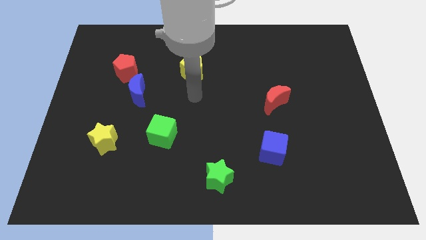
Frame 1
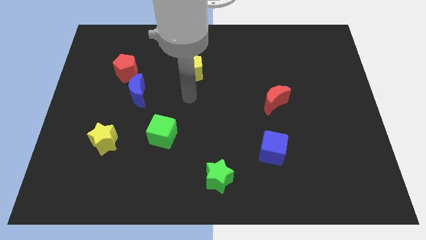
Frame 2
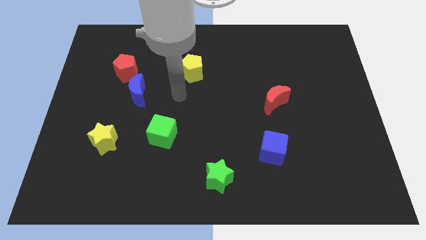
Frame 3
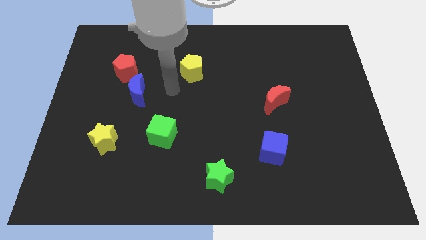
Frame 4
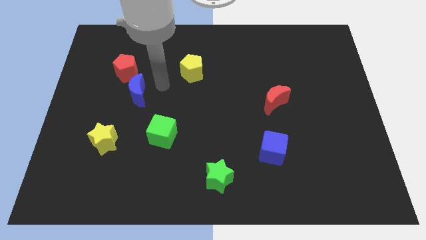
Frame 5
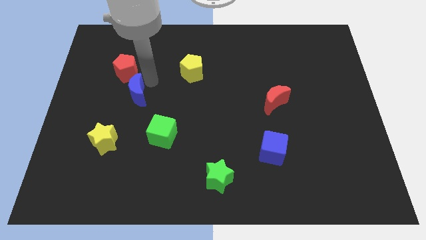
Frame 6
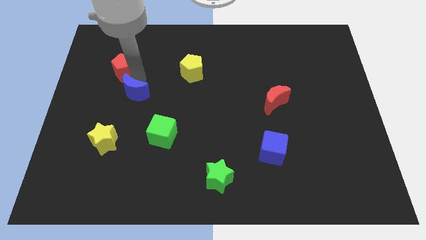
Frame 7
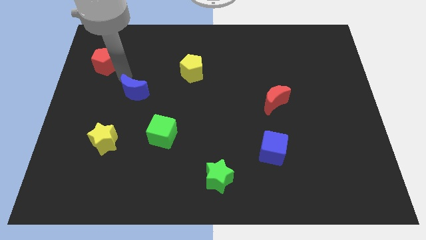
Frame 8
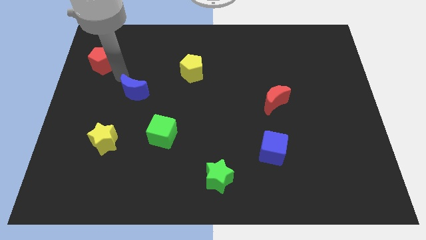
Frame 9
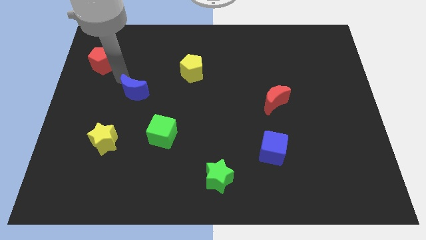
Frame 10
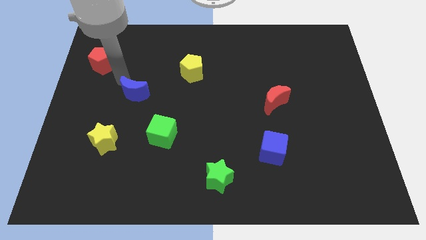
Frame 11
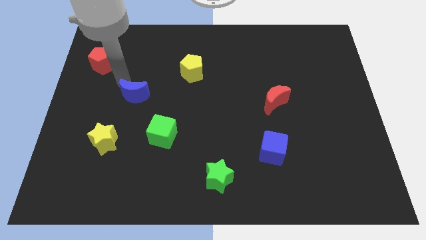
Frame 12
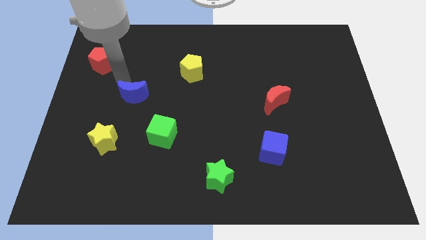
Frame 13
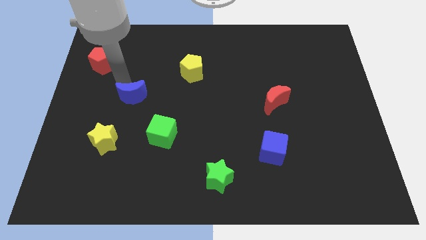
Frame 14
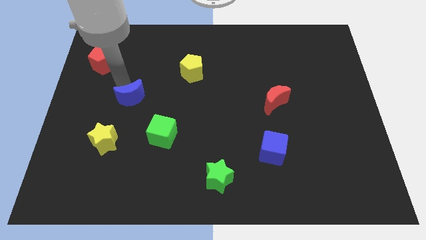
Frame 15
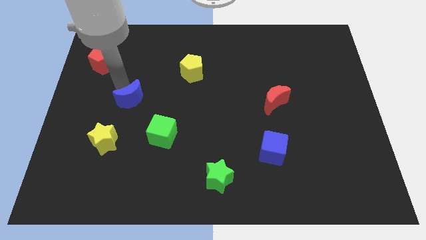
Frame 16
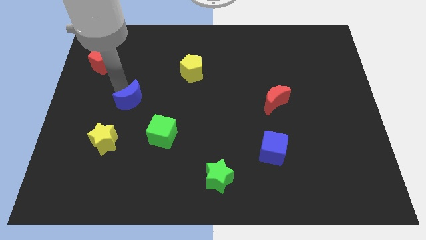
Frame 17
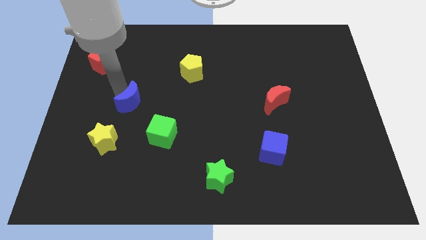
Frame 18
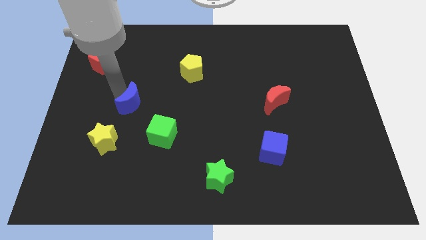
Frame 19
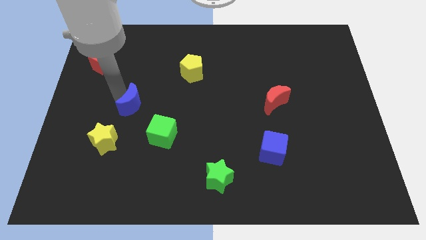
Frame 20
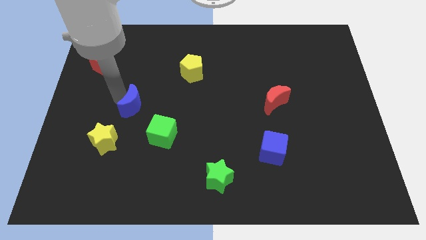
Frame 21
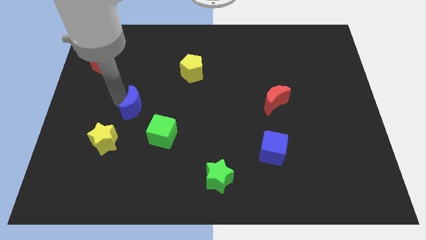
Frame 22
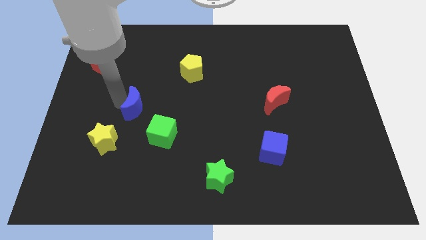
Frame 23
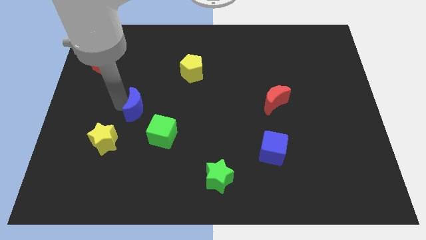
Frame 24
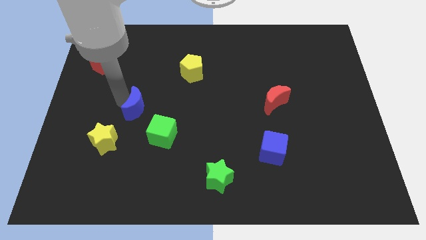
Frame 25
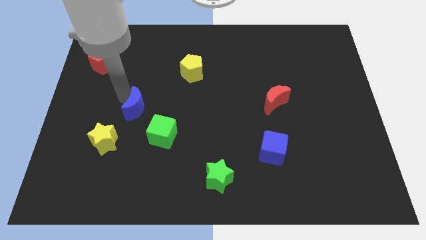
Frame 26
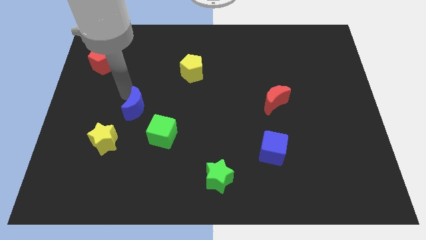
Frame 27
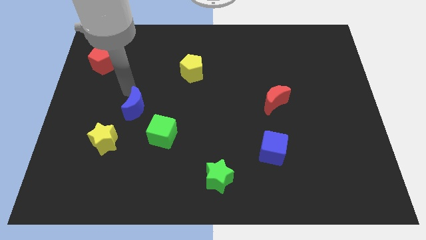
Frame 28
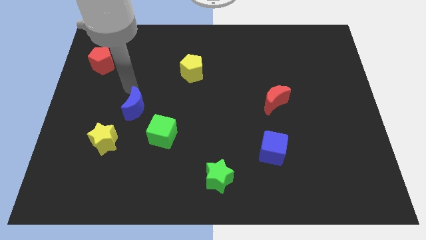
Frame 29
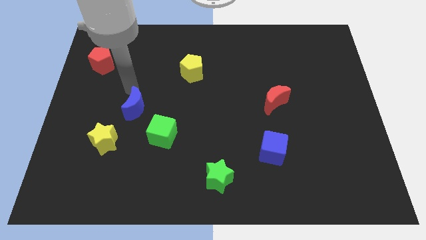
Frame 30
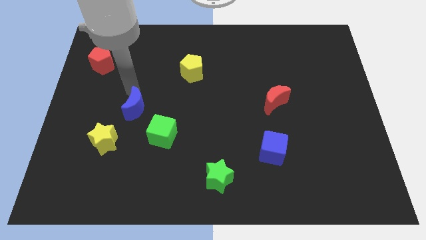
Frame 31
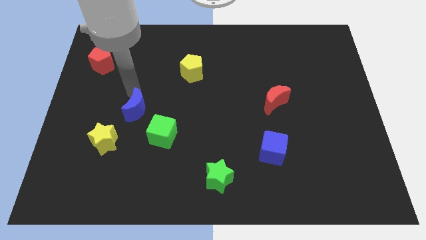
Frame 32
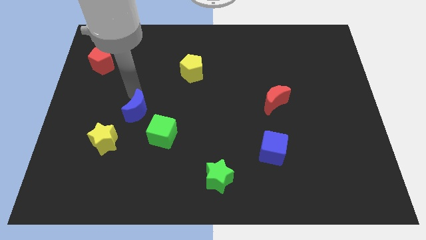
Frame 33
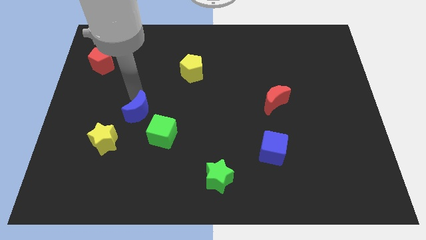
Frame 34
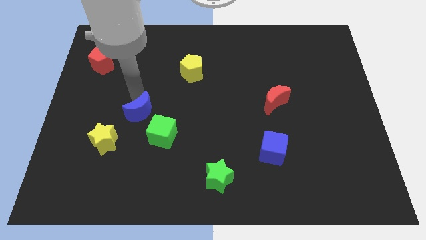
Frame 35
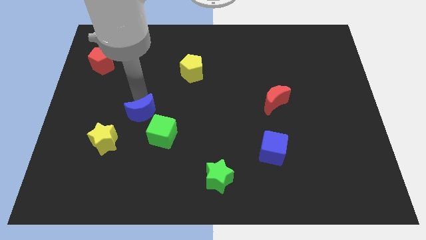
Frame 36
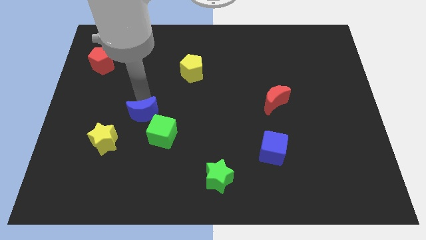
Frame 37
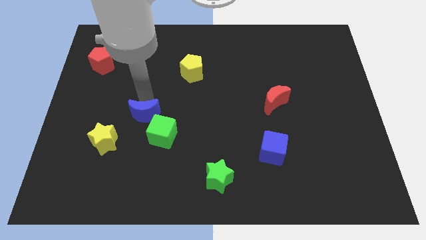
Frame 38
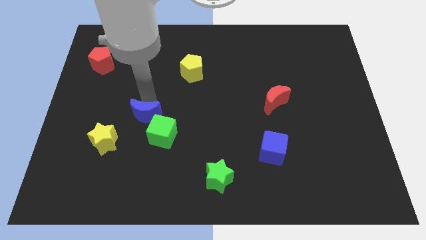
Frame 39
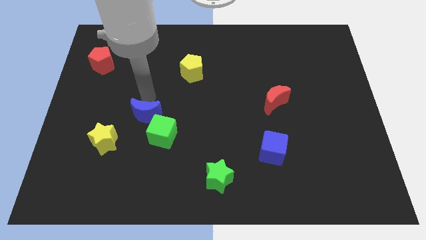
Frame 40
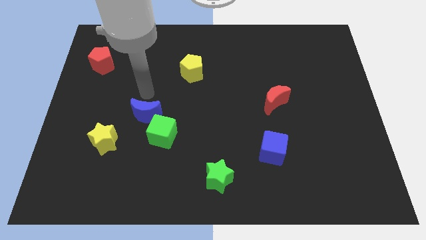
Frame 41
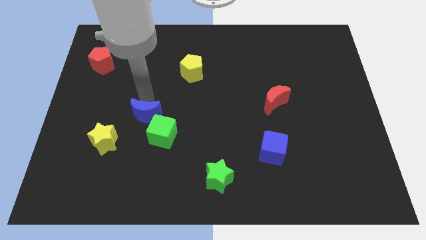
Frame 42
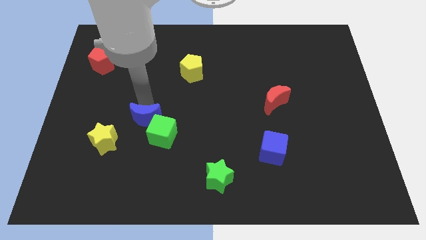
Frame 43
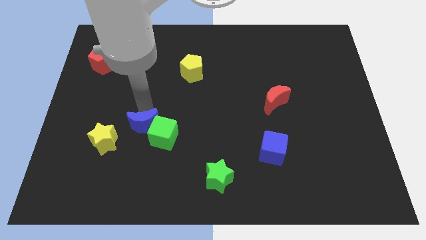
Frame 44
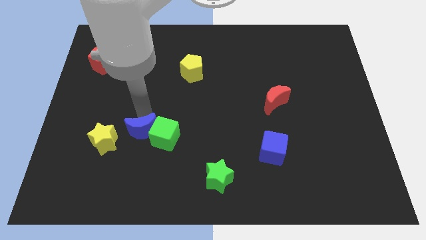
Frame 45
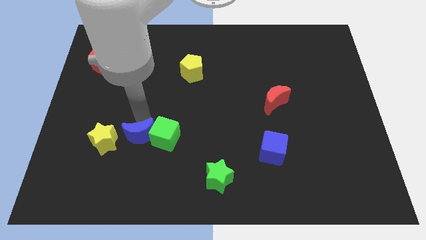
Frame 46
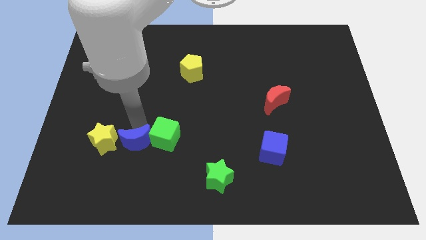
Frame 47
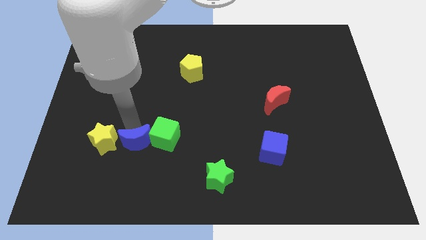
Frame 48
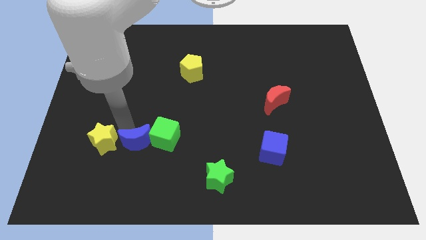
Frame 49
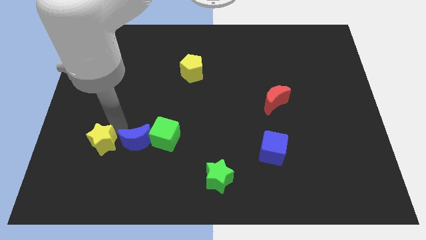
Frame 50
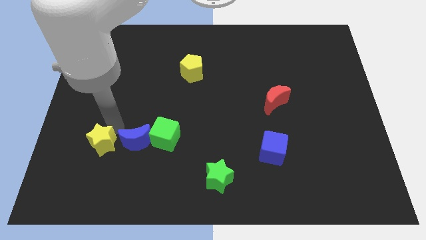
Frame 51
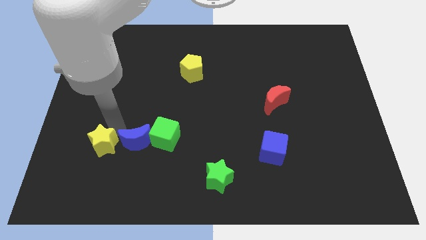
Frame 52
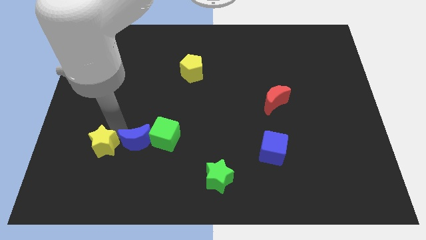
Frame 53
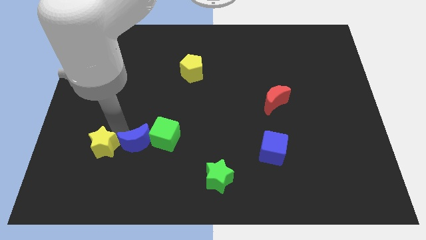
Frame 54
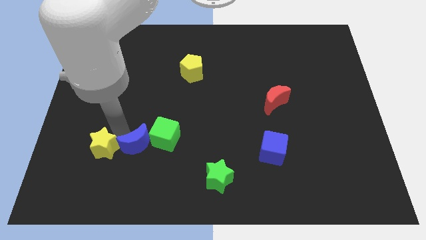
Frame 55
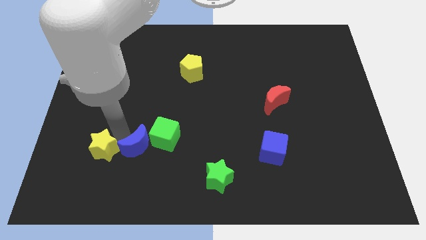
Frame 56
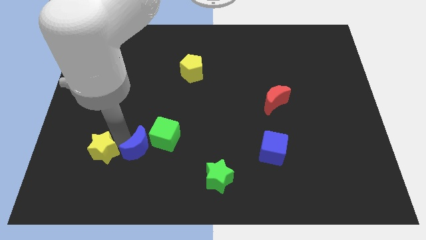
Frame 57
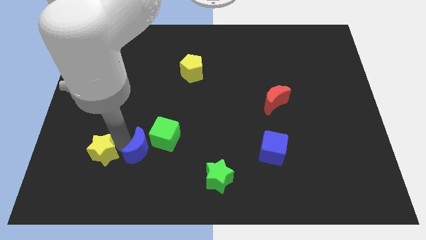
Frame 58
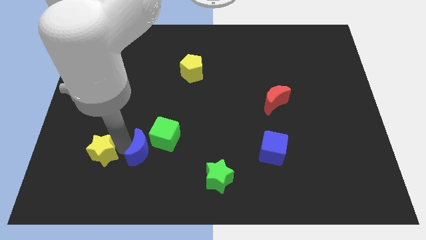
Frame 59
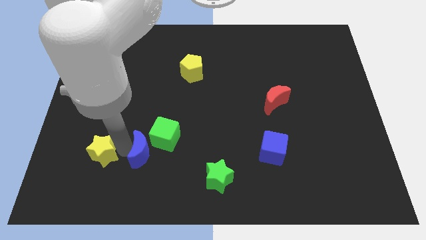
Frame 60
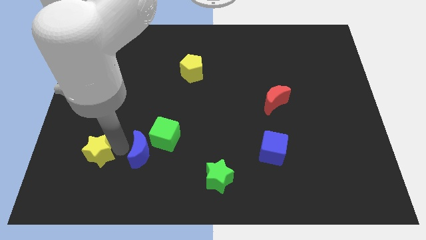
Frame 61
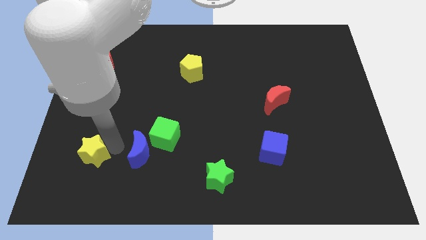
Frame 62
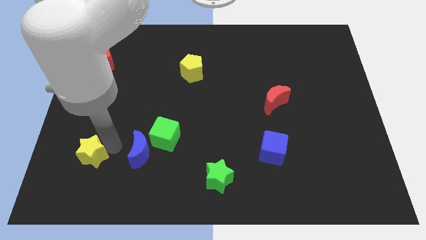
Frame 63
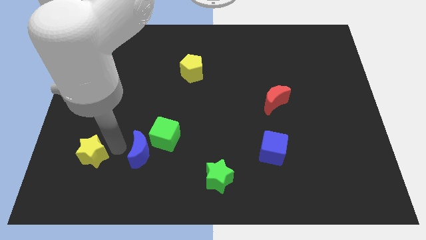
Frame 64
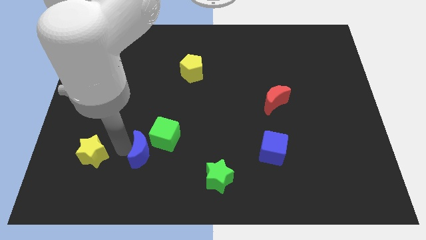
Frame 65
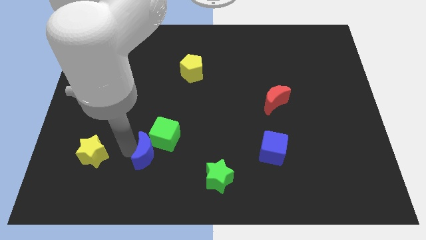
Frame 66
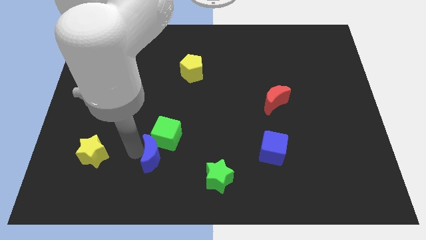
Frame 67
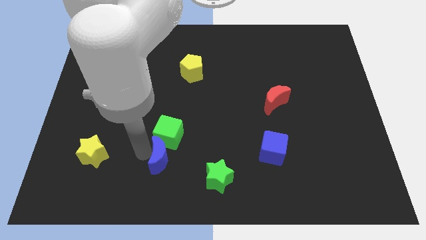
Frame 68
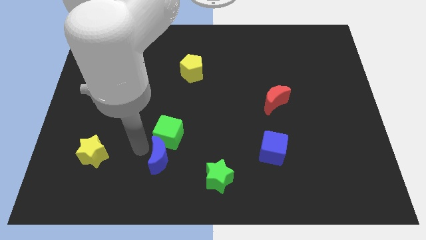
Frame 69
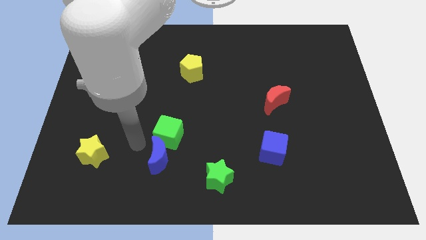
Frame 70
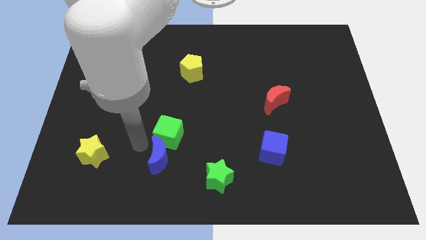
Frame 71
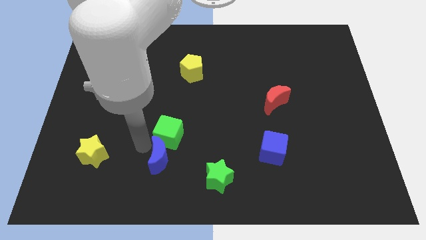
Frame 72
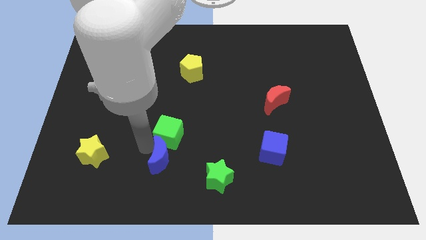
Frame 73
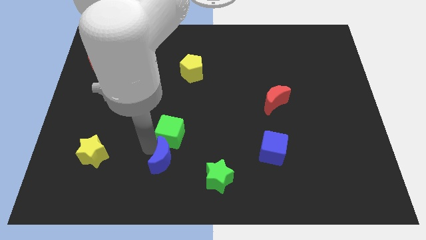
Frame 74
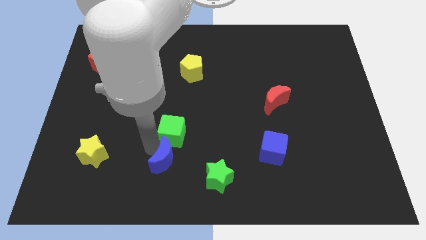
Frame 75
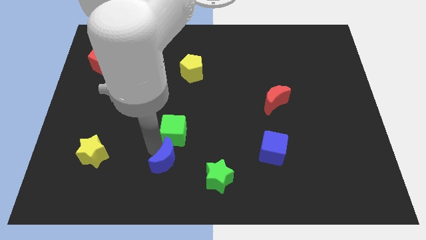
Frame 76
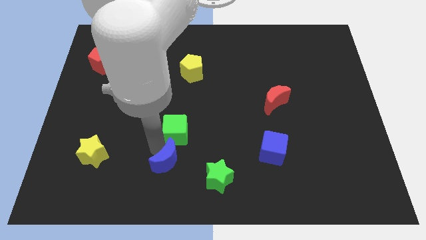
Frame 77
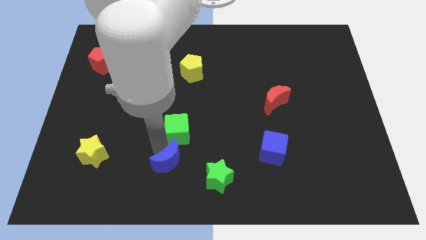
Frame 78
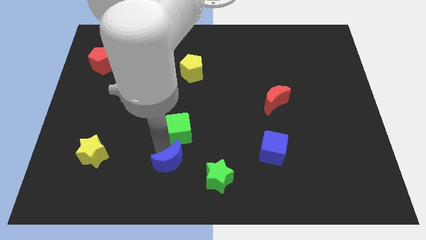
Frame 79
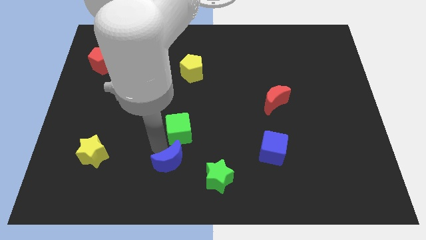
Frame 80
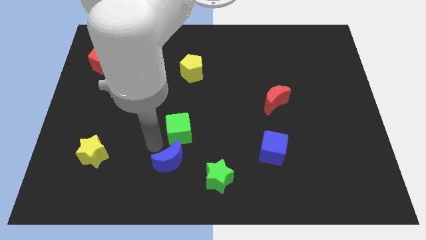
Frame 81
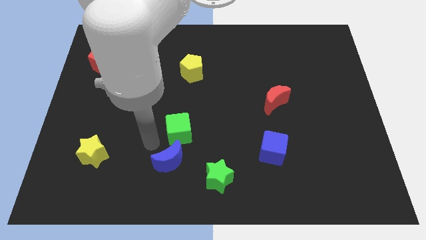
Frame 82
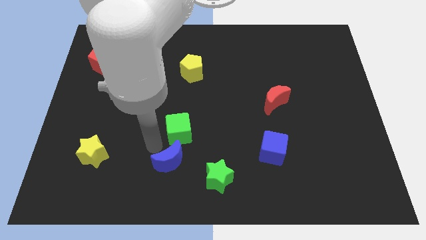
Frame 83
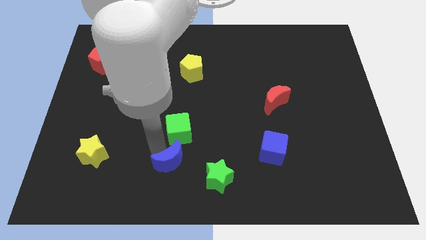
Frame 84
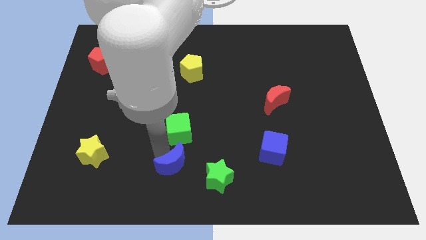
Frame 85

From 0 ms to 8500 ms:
push the blue moon to the bottom side
